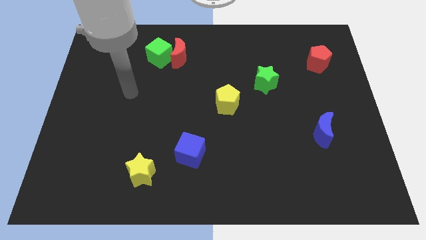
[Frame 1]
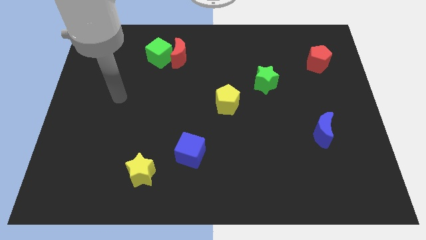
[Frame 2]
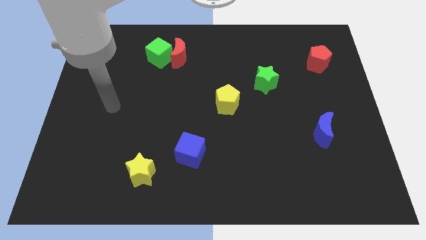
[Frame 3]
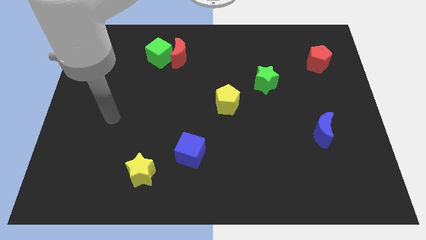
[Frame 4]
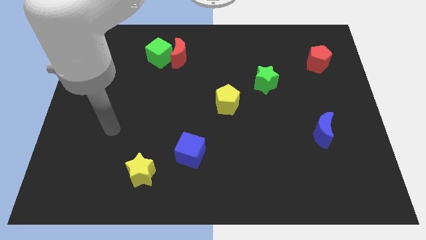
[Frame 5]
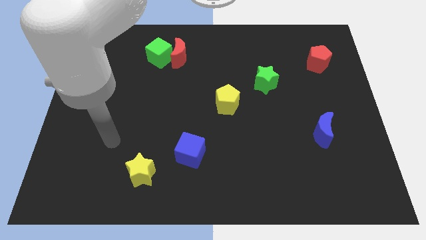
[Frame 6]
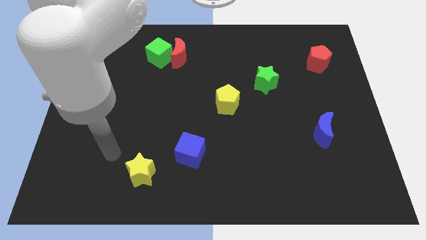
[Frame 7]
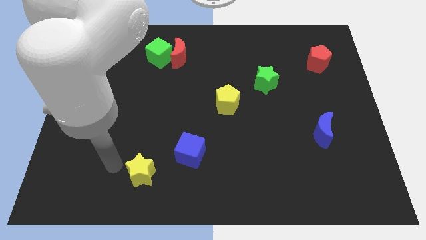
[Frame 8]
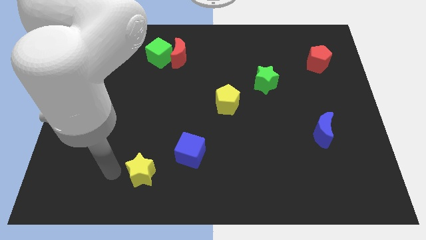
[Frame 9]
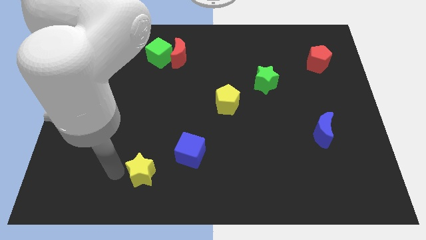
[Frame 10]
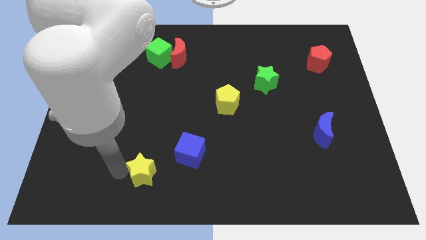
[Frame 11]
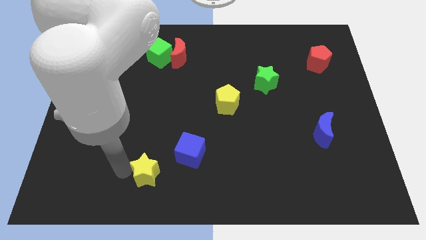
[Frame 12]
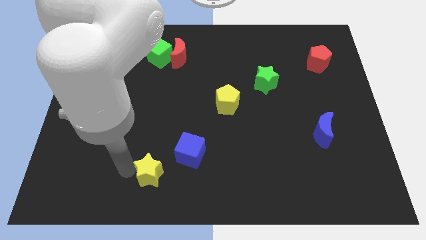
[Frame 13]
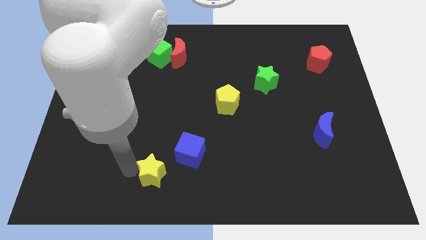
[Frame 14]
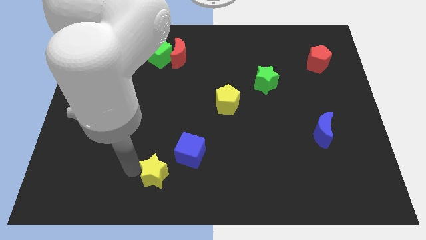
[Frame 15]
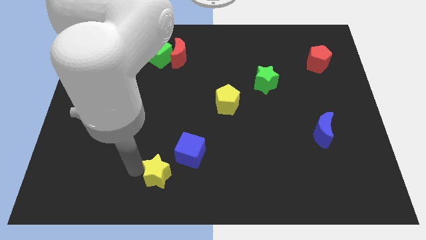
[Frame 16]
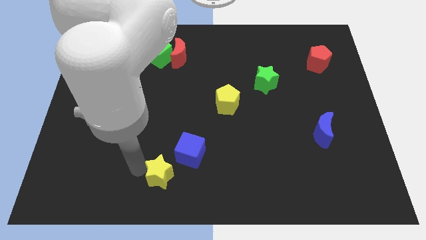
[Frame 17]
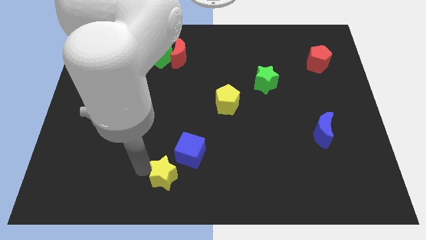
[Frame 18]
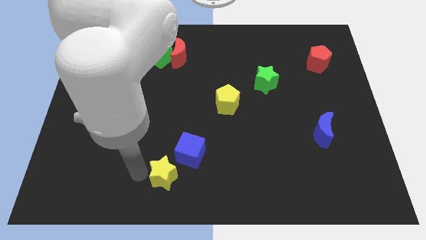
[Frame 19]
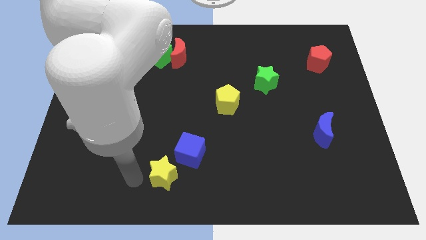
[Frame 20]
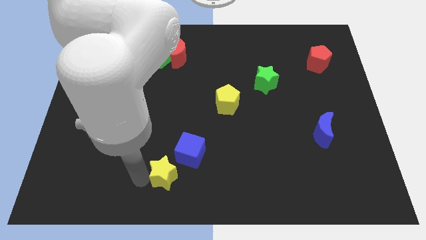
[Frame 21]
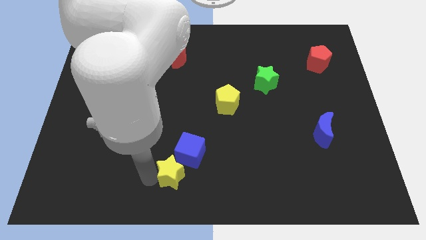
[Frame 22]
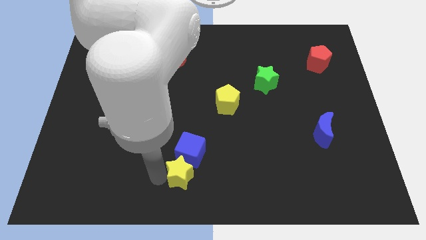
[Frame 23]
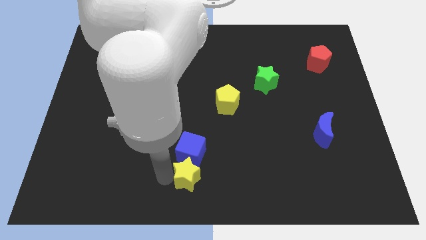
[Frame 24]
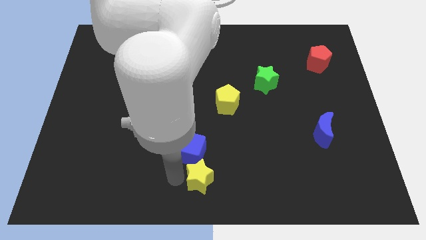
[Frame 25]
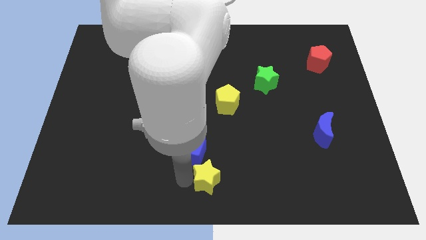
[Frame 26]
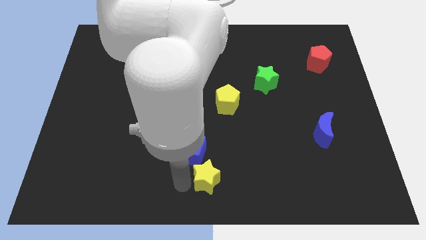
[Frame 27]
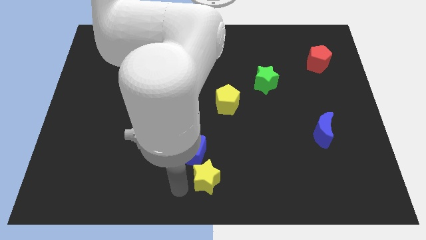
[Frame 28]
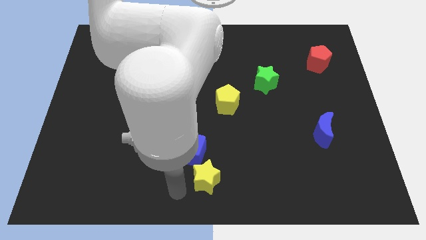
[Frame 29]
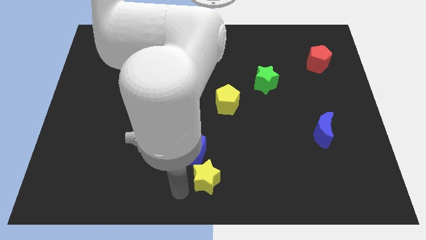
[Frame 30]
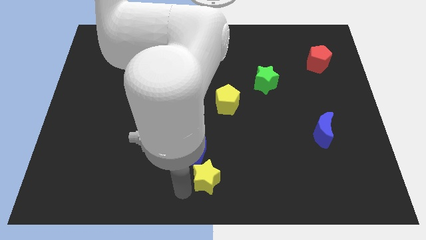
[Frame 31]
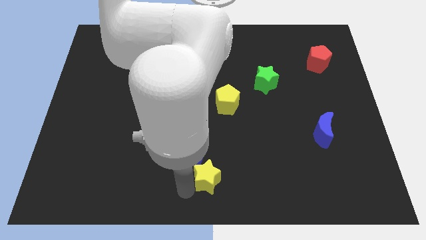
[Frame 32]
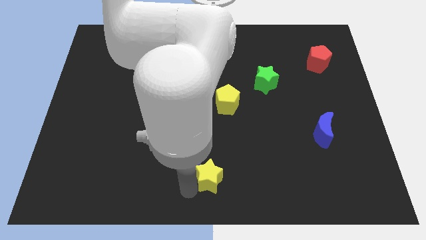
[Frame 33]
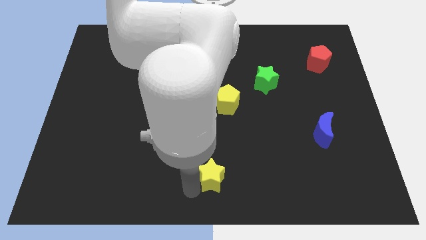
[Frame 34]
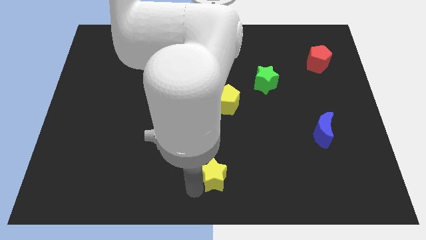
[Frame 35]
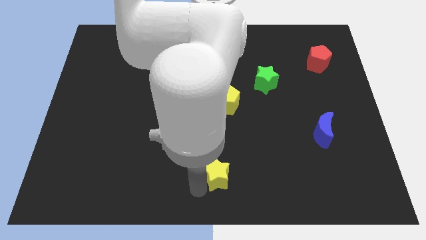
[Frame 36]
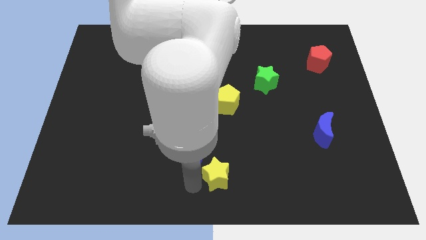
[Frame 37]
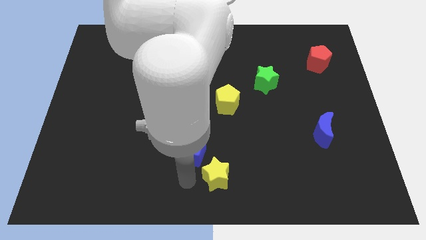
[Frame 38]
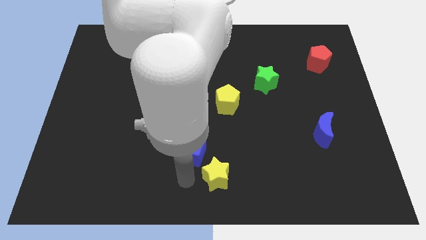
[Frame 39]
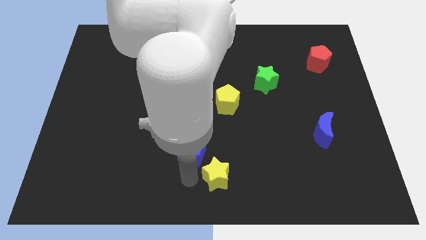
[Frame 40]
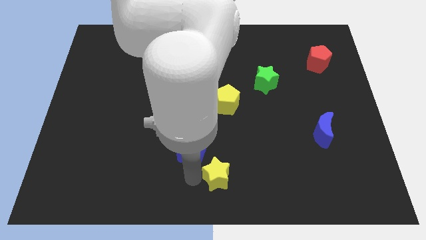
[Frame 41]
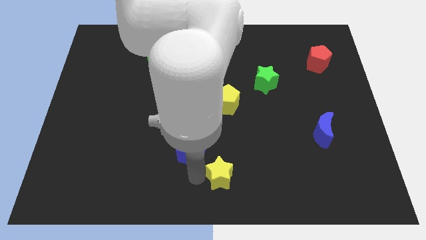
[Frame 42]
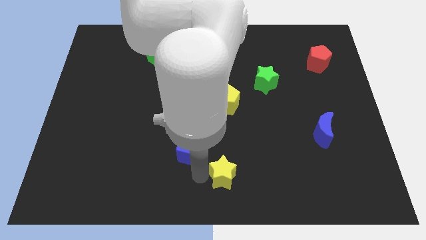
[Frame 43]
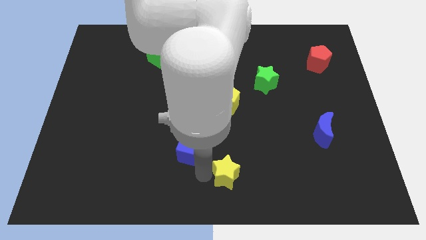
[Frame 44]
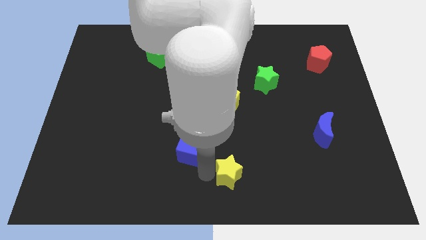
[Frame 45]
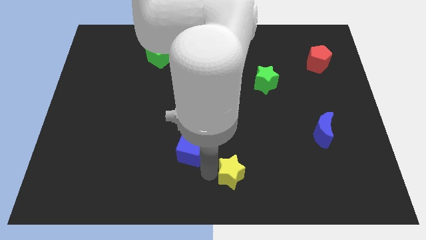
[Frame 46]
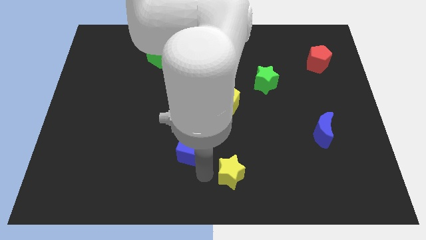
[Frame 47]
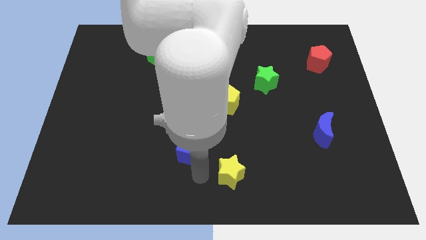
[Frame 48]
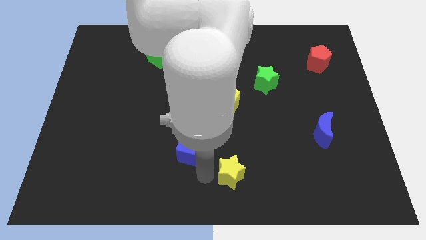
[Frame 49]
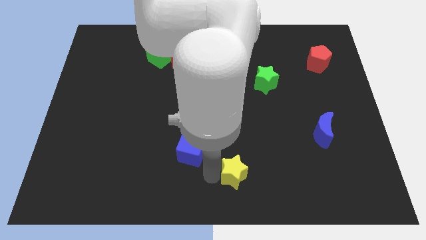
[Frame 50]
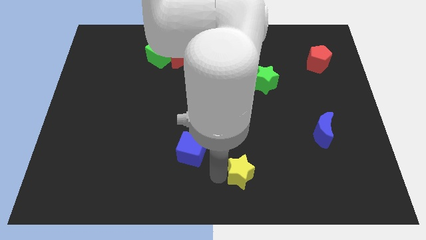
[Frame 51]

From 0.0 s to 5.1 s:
push the yellow star to the right

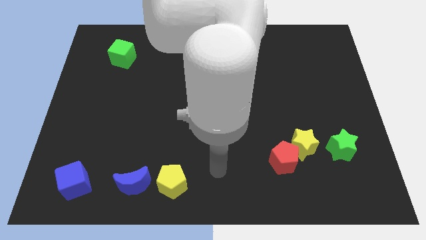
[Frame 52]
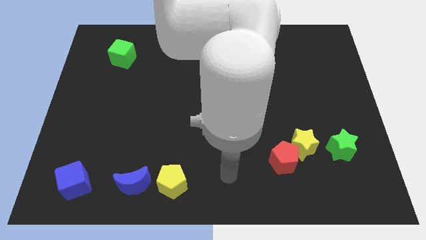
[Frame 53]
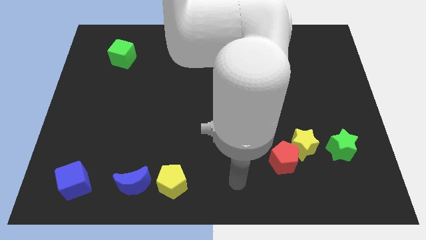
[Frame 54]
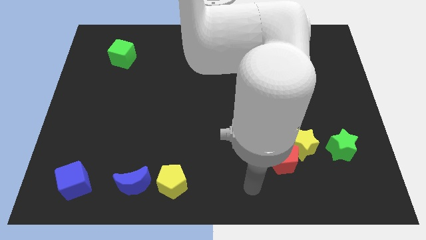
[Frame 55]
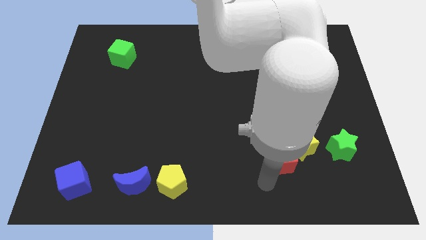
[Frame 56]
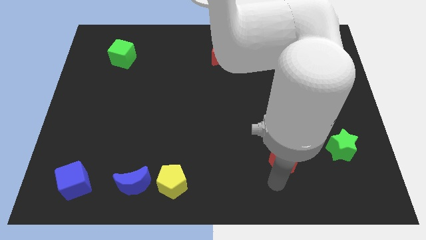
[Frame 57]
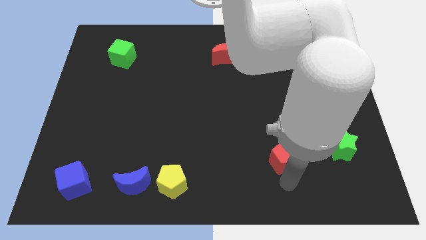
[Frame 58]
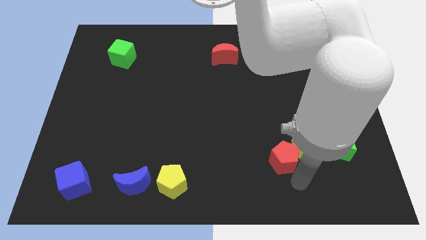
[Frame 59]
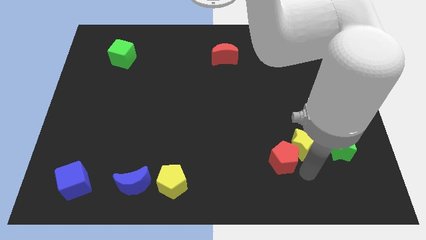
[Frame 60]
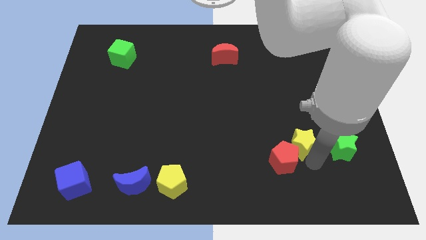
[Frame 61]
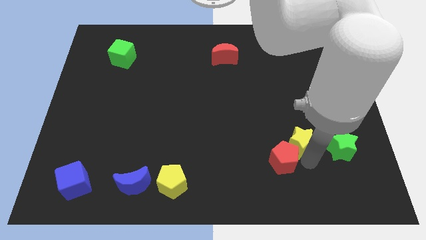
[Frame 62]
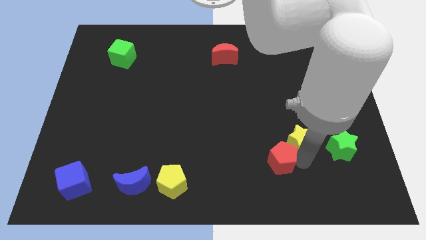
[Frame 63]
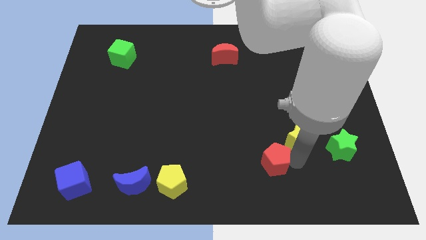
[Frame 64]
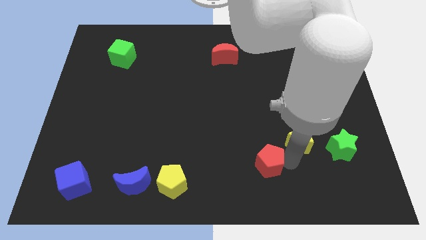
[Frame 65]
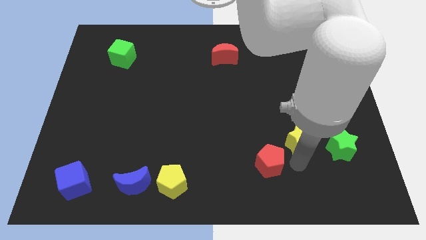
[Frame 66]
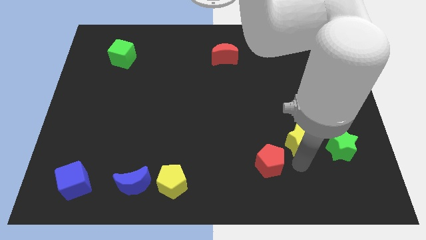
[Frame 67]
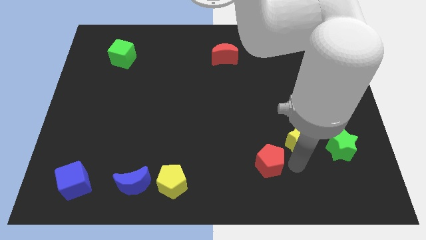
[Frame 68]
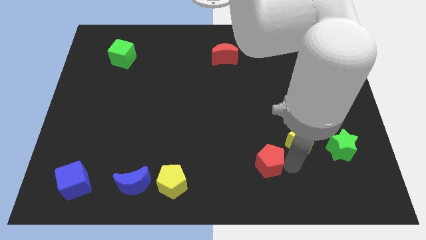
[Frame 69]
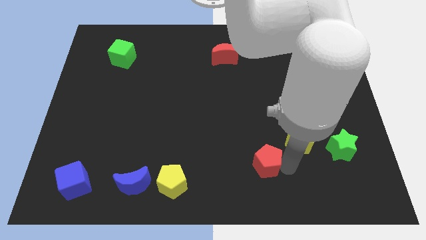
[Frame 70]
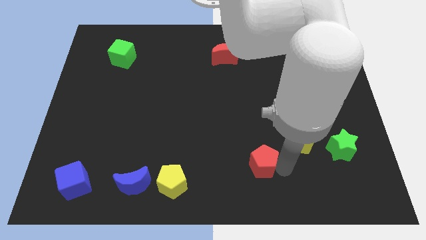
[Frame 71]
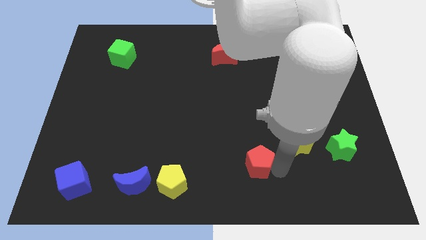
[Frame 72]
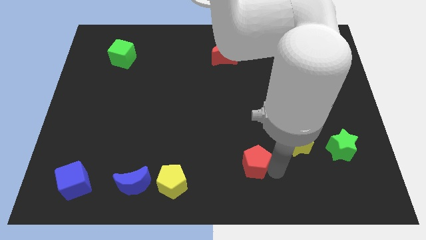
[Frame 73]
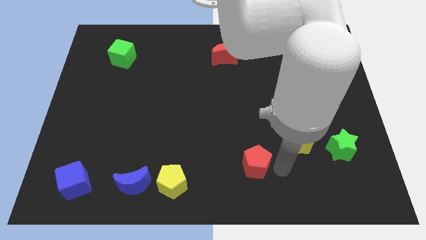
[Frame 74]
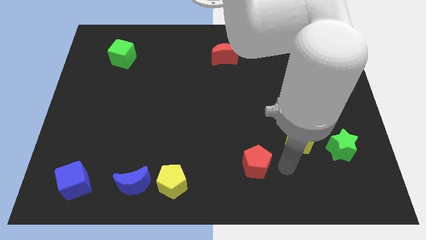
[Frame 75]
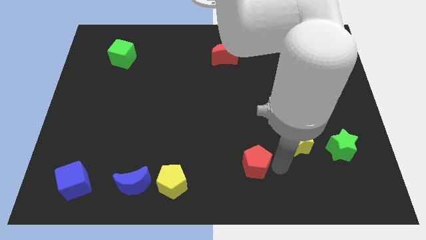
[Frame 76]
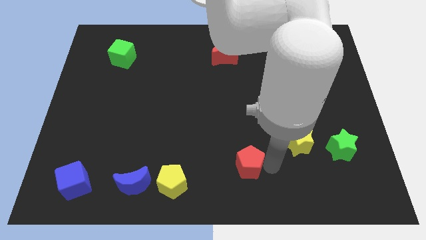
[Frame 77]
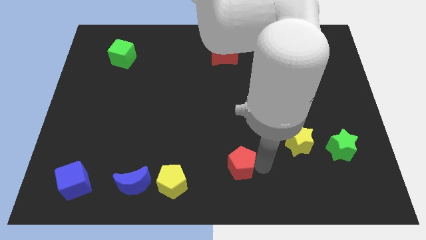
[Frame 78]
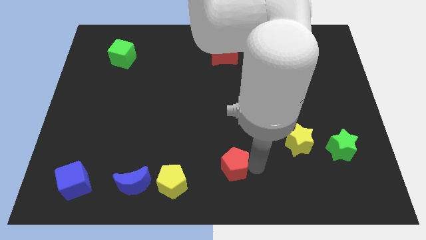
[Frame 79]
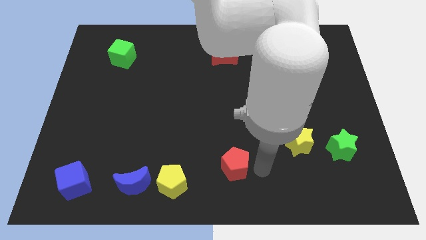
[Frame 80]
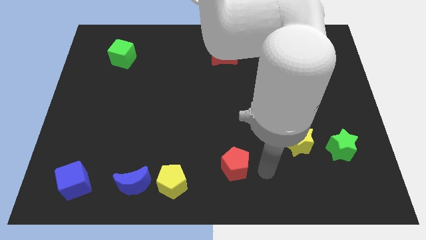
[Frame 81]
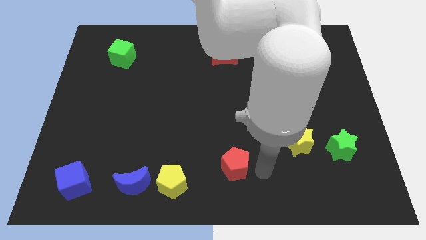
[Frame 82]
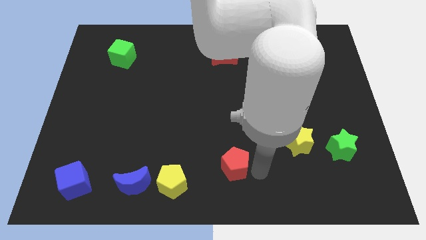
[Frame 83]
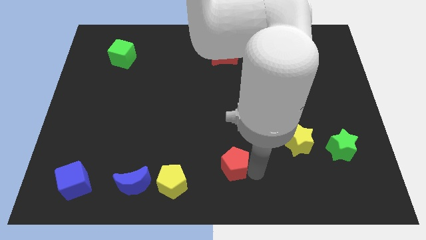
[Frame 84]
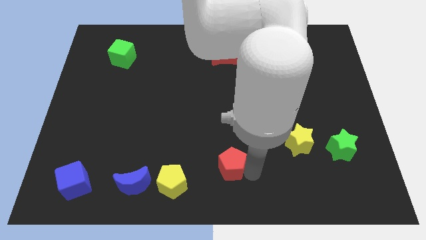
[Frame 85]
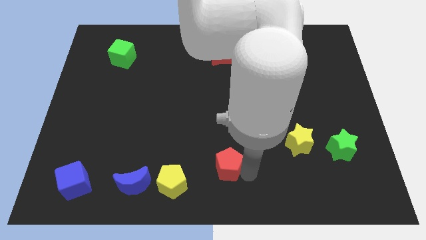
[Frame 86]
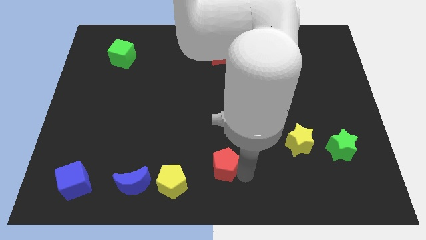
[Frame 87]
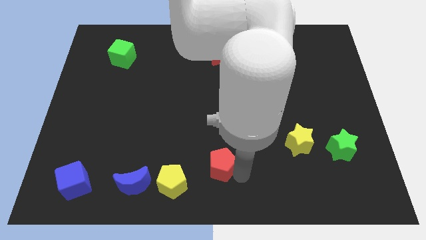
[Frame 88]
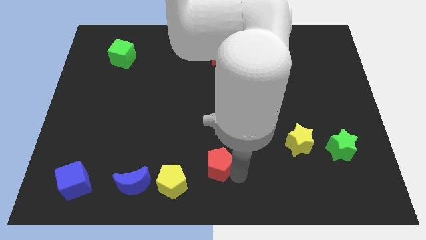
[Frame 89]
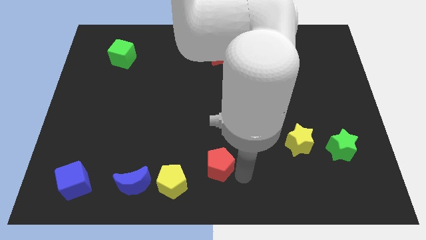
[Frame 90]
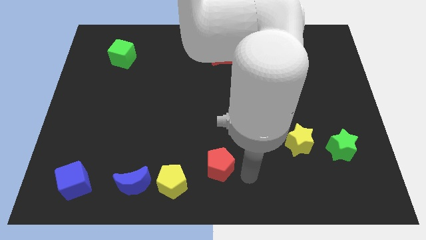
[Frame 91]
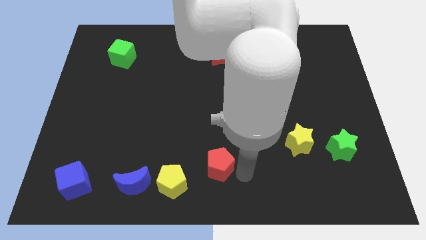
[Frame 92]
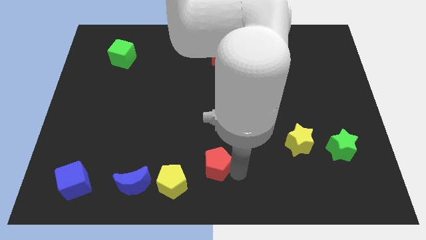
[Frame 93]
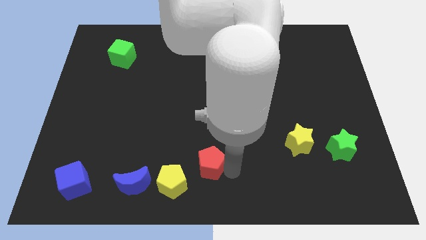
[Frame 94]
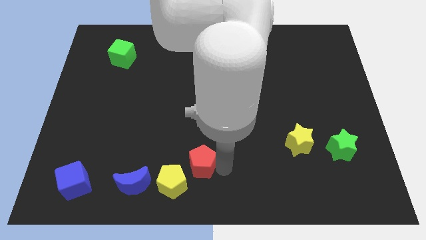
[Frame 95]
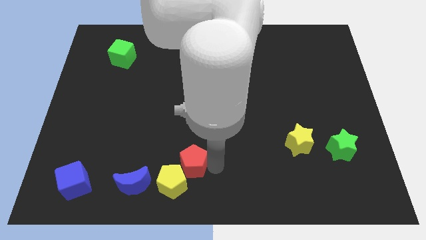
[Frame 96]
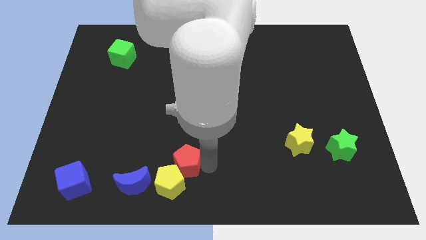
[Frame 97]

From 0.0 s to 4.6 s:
slide the red pentagon left
